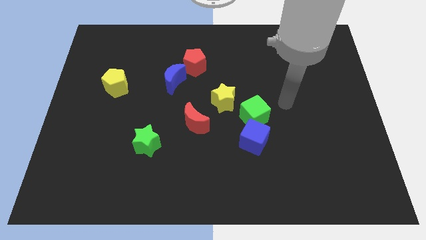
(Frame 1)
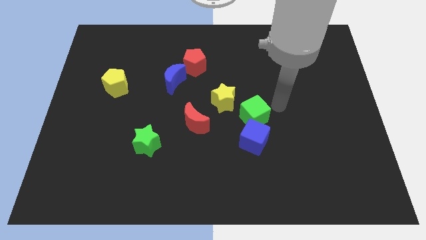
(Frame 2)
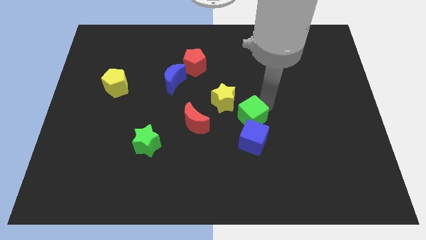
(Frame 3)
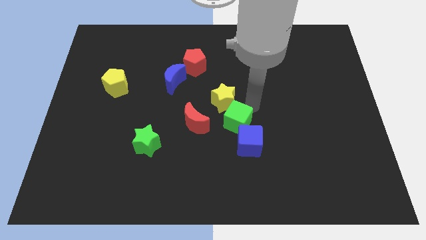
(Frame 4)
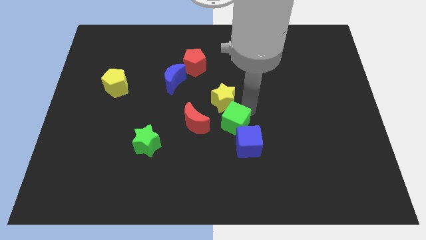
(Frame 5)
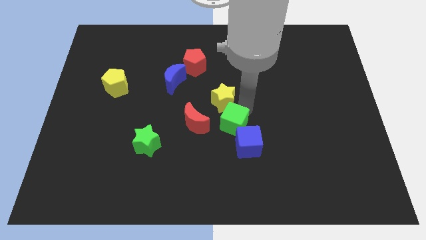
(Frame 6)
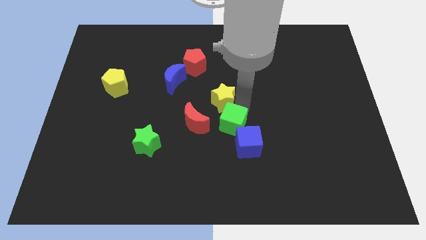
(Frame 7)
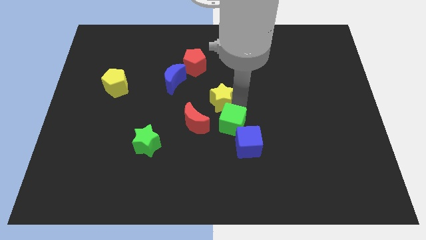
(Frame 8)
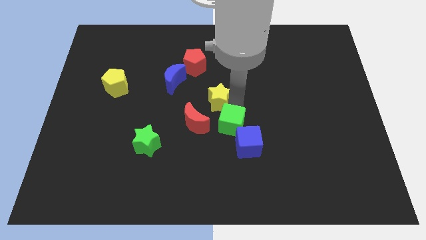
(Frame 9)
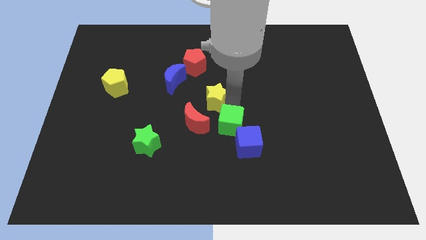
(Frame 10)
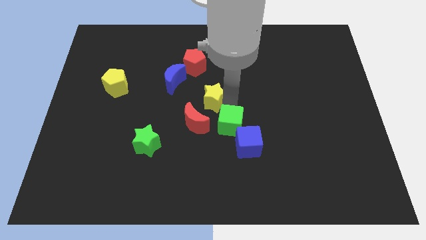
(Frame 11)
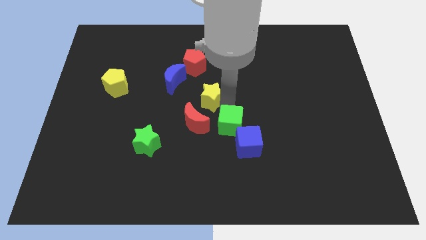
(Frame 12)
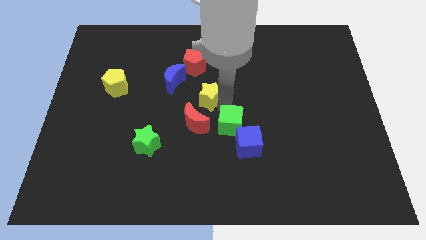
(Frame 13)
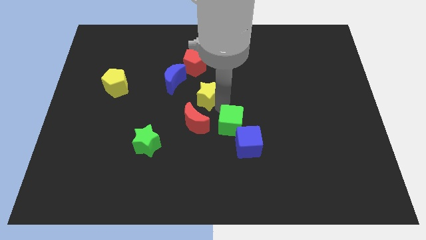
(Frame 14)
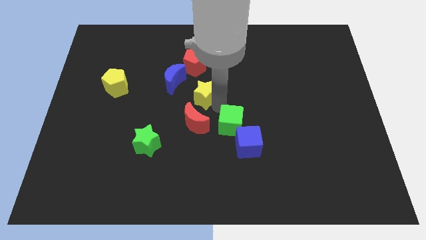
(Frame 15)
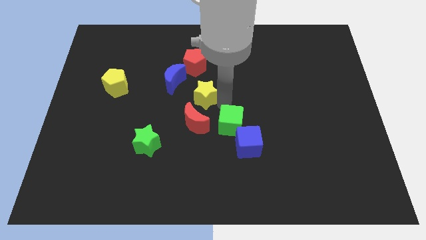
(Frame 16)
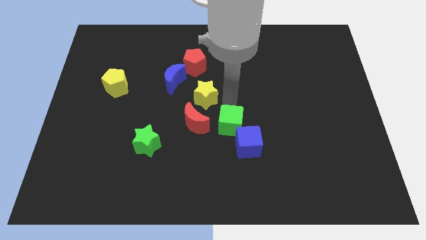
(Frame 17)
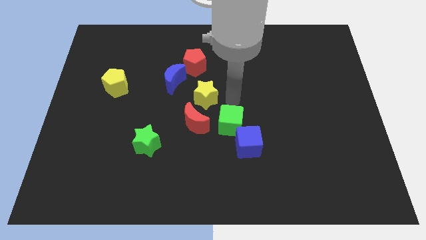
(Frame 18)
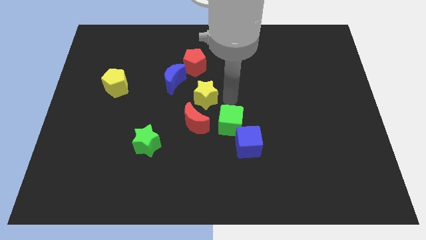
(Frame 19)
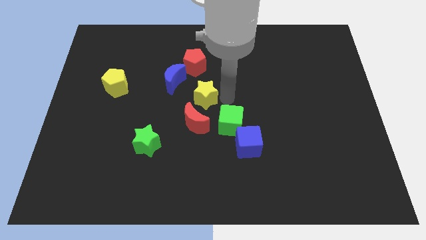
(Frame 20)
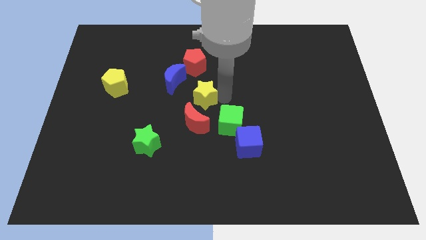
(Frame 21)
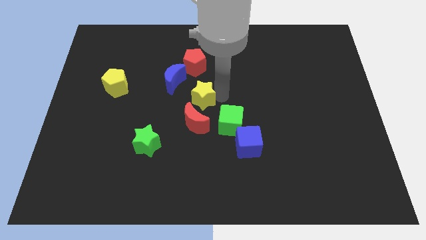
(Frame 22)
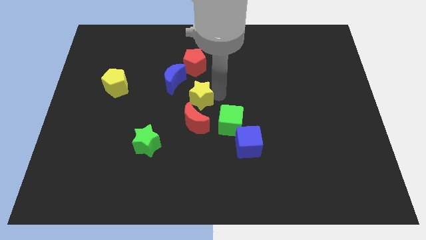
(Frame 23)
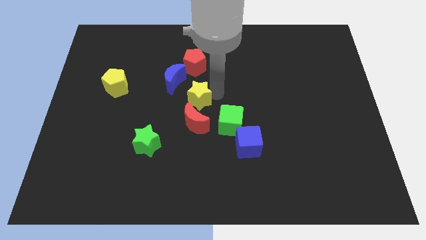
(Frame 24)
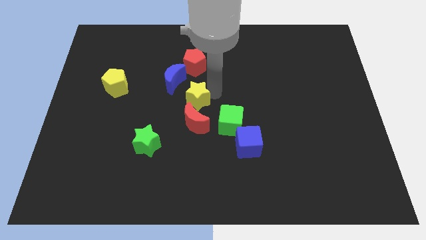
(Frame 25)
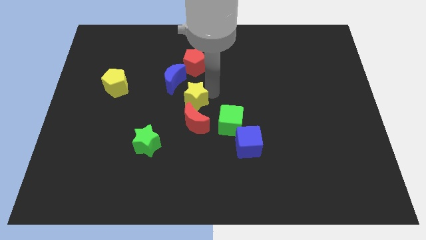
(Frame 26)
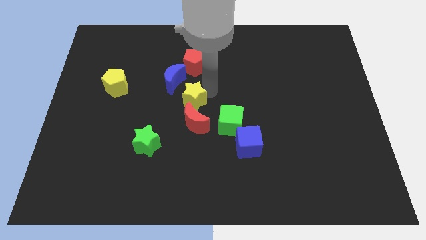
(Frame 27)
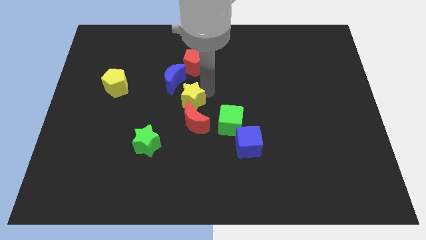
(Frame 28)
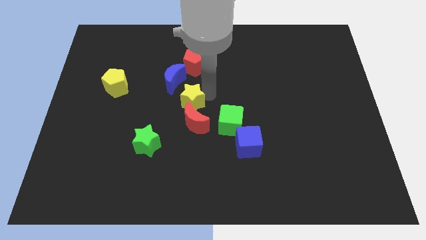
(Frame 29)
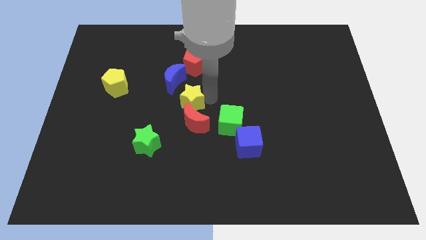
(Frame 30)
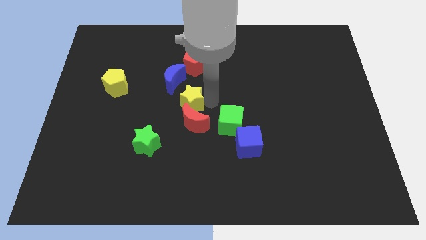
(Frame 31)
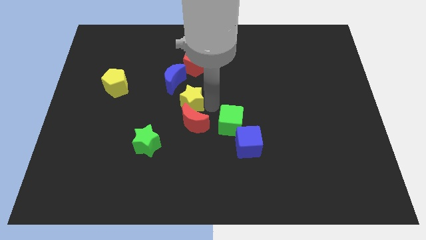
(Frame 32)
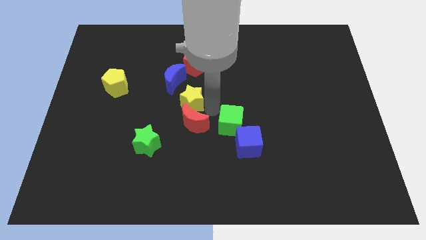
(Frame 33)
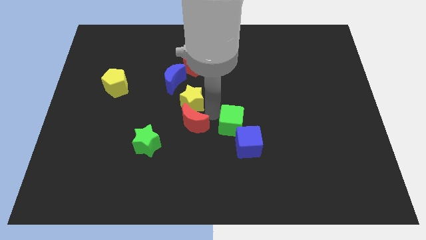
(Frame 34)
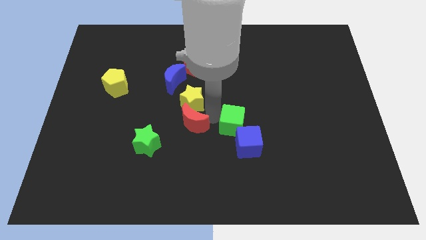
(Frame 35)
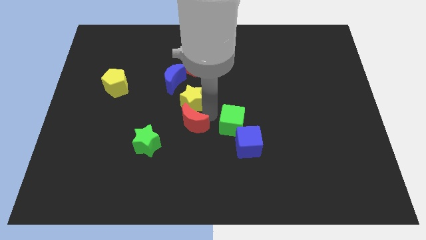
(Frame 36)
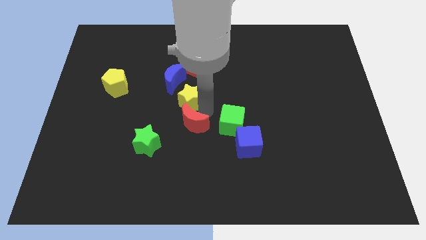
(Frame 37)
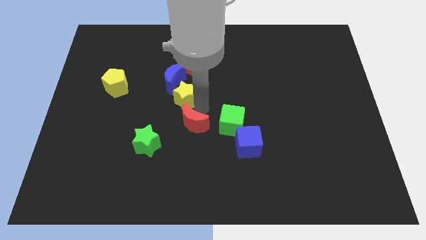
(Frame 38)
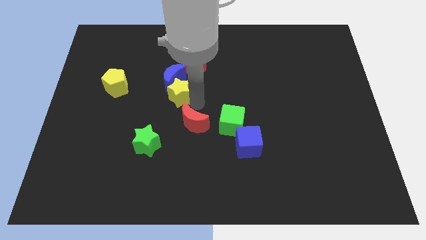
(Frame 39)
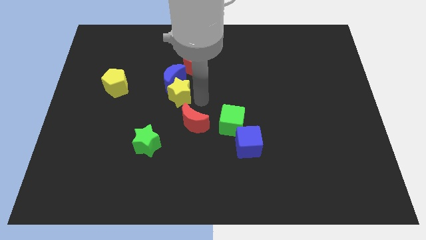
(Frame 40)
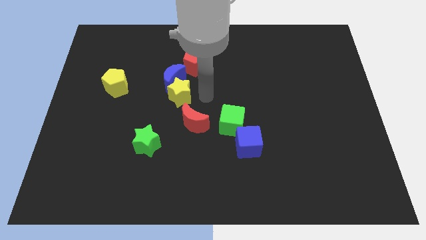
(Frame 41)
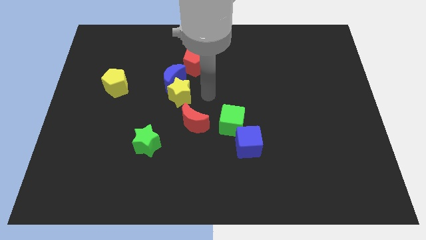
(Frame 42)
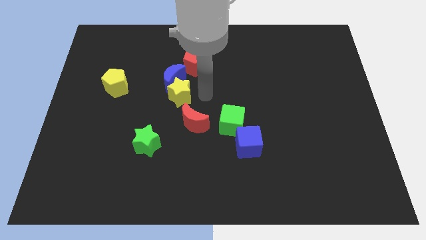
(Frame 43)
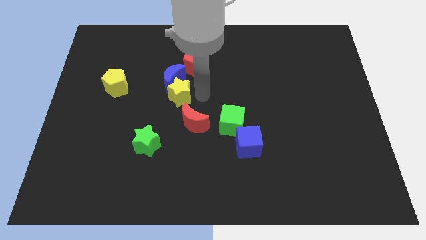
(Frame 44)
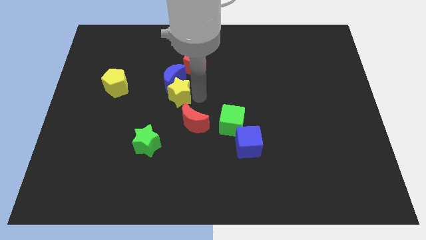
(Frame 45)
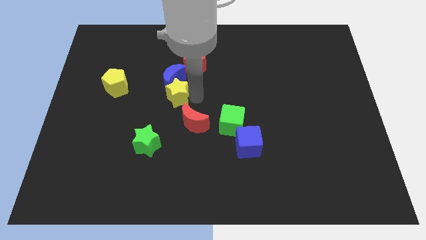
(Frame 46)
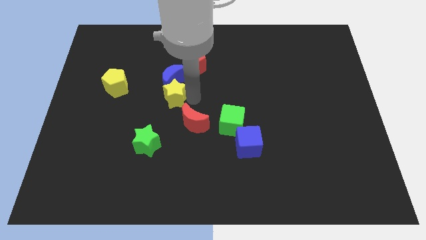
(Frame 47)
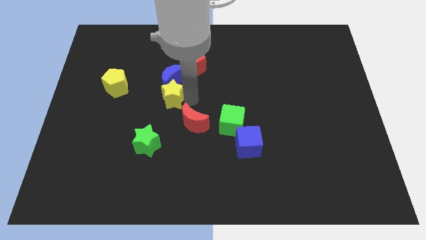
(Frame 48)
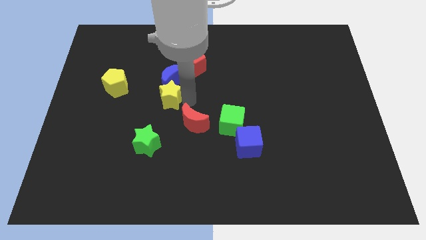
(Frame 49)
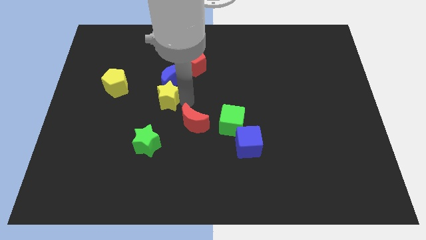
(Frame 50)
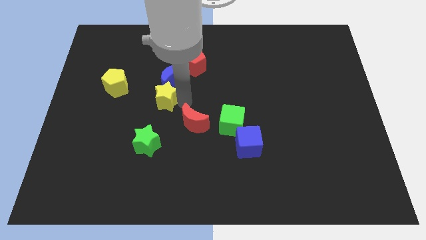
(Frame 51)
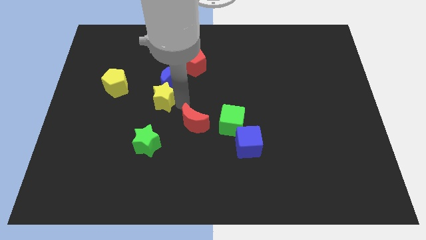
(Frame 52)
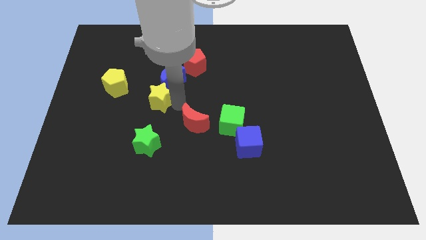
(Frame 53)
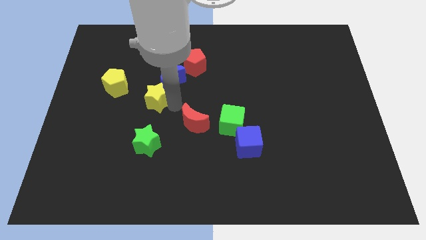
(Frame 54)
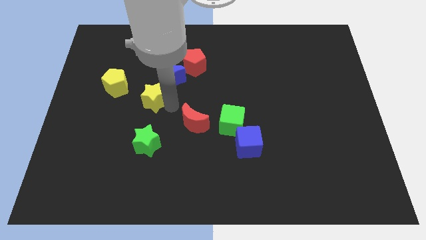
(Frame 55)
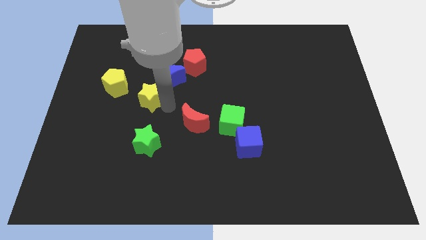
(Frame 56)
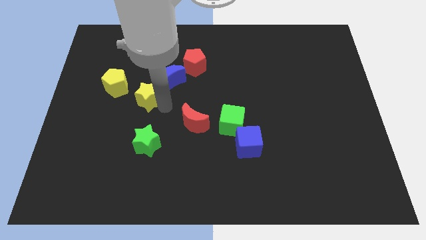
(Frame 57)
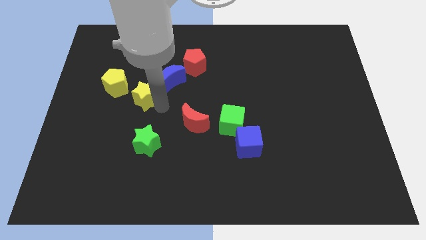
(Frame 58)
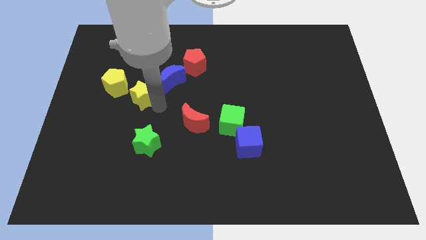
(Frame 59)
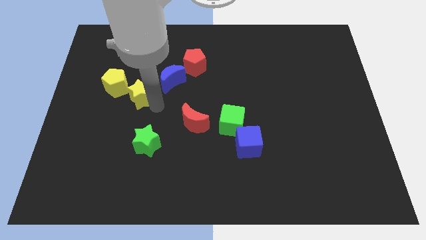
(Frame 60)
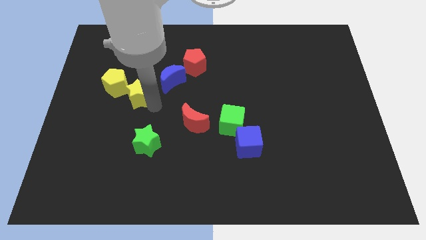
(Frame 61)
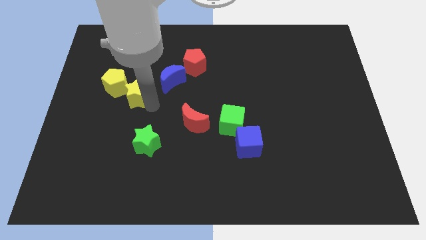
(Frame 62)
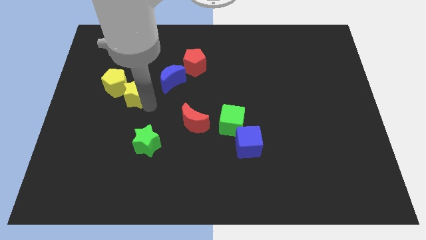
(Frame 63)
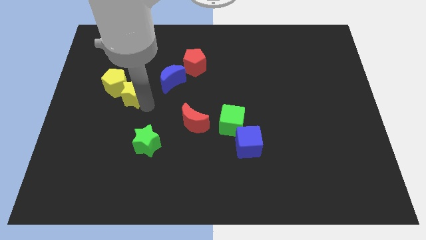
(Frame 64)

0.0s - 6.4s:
push the yellow star to the yellow pentagon
